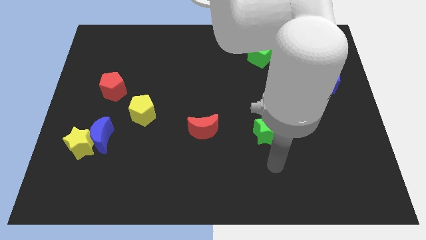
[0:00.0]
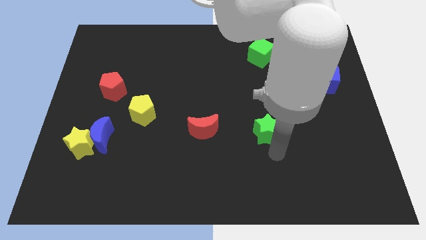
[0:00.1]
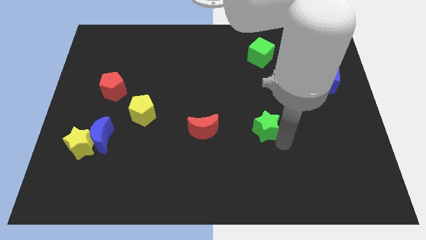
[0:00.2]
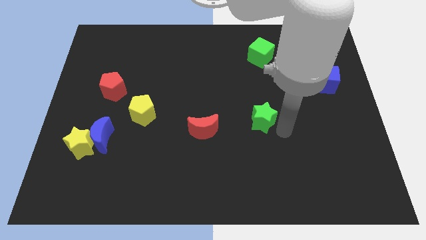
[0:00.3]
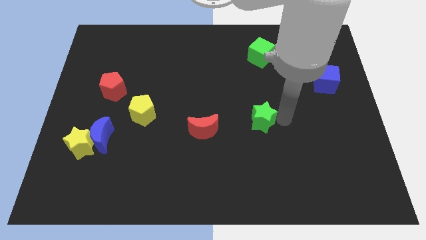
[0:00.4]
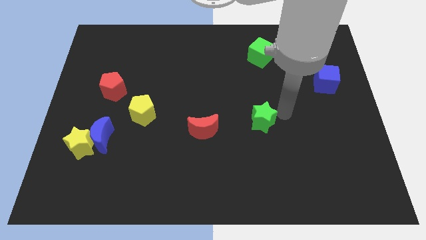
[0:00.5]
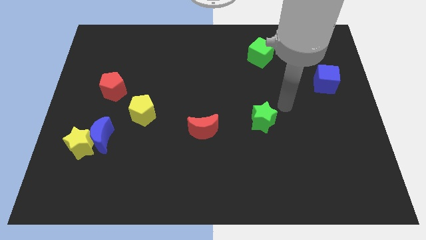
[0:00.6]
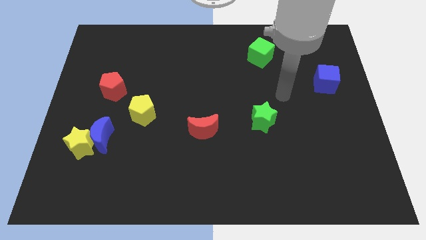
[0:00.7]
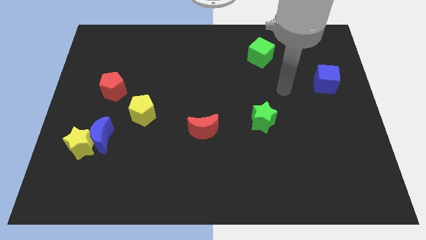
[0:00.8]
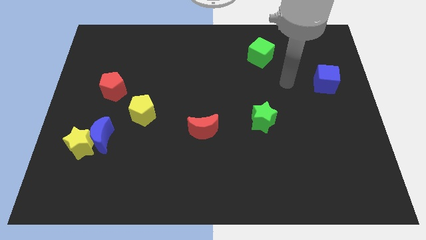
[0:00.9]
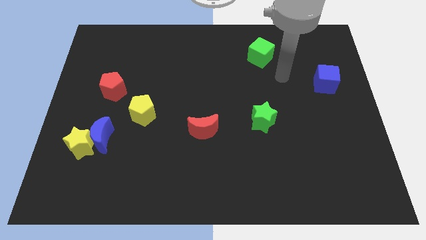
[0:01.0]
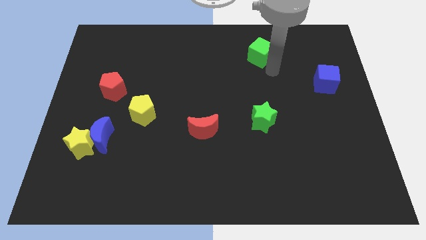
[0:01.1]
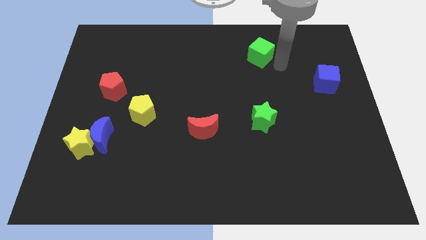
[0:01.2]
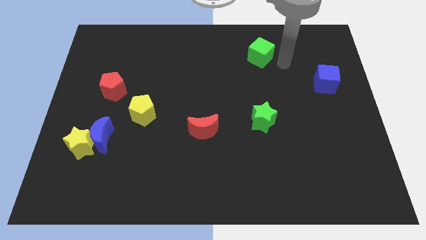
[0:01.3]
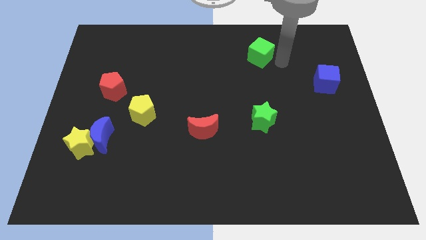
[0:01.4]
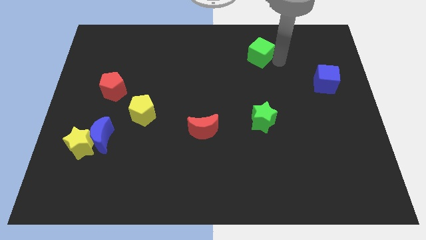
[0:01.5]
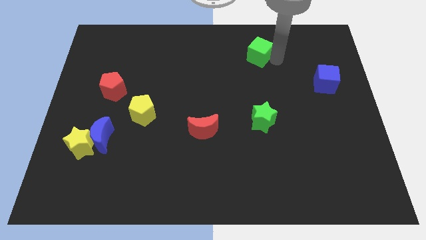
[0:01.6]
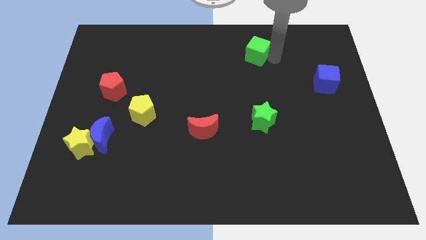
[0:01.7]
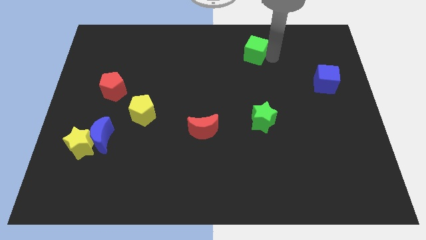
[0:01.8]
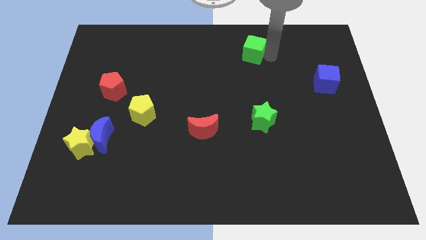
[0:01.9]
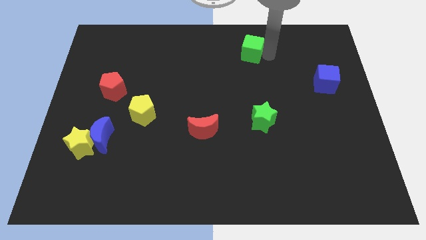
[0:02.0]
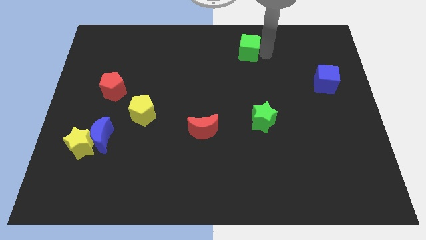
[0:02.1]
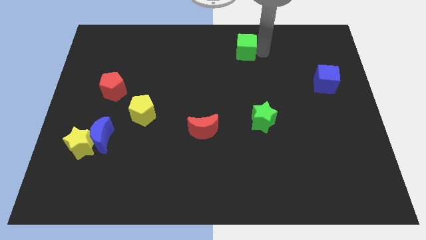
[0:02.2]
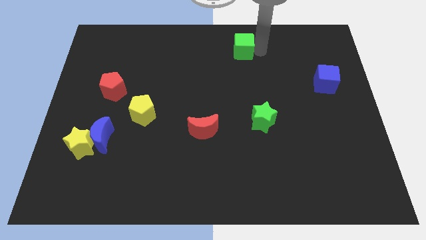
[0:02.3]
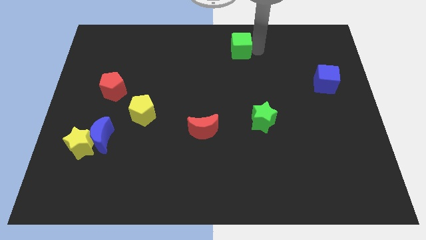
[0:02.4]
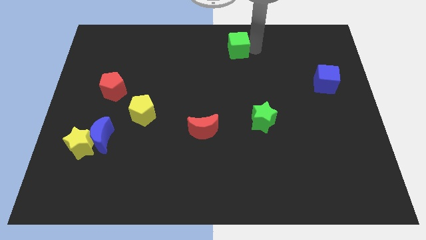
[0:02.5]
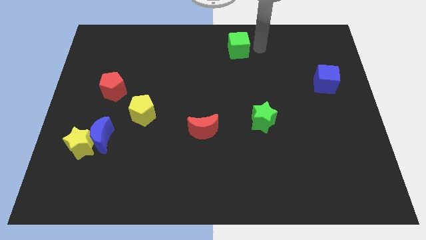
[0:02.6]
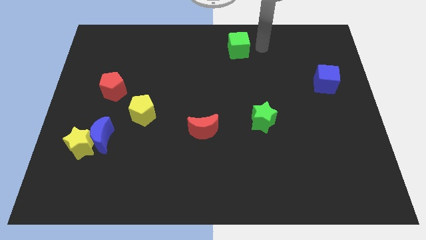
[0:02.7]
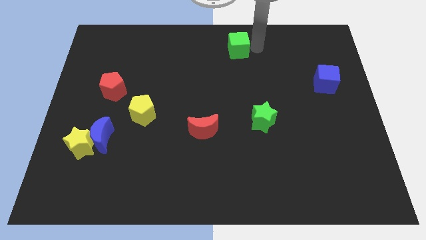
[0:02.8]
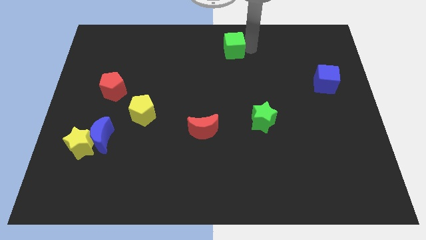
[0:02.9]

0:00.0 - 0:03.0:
push the green cube left a bit

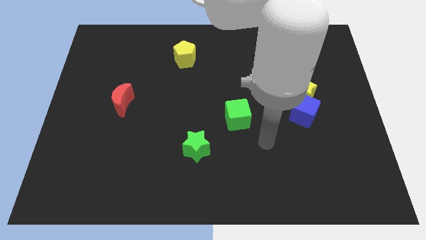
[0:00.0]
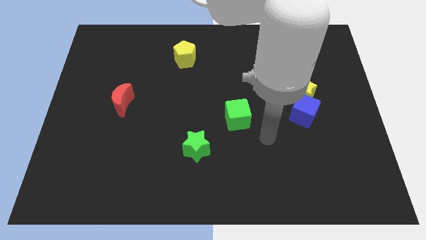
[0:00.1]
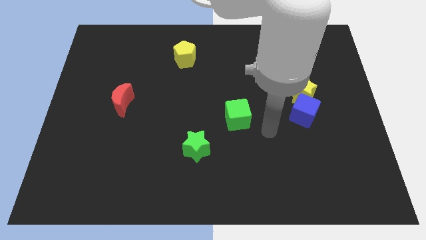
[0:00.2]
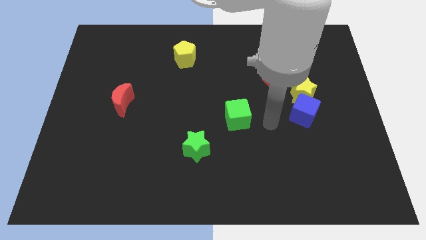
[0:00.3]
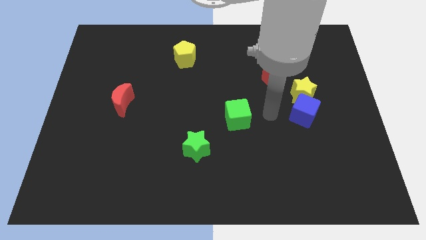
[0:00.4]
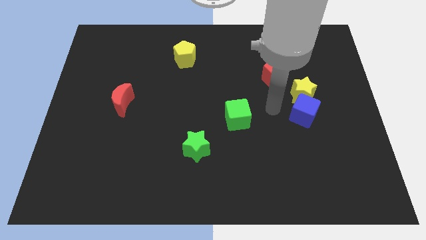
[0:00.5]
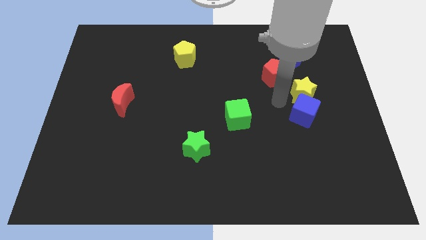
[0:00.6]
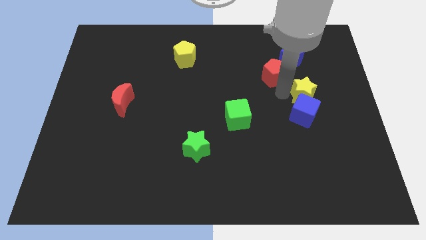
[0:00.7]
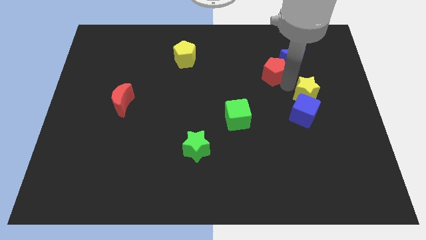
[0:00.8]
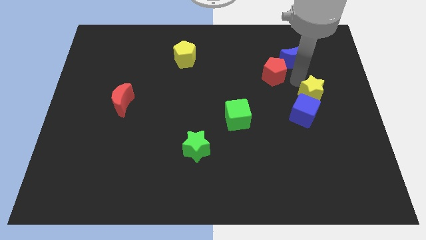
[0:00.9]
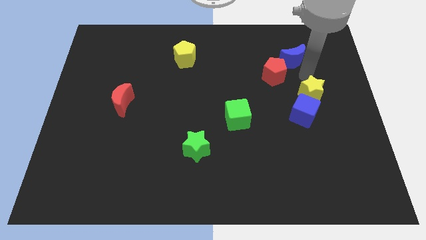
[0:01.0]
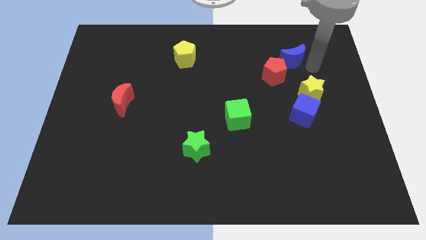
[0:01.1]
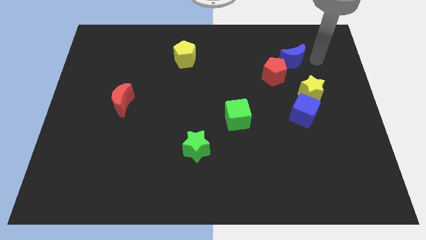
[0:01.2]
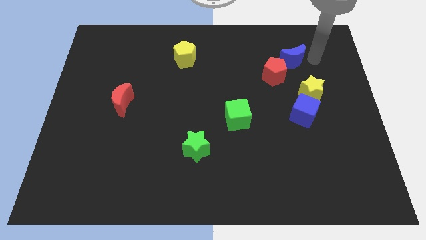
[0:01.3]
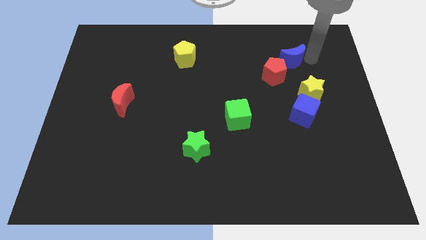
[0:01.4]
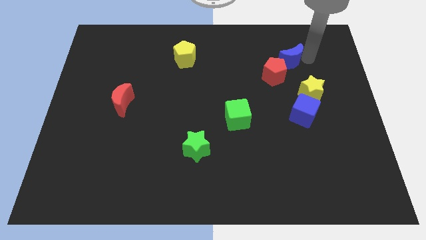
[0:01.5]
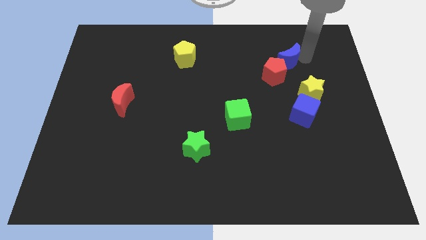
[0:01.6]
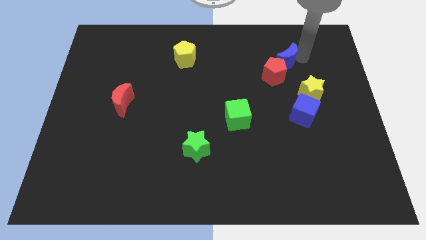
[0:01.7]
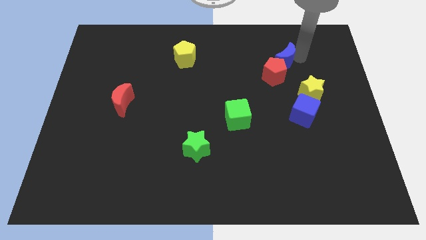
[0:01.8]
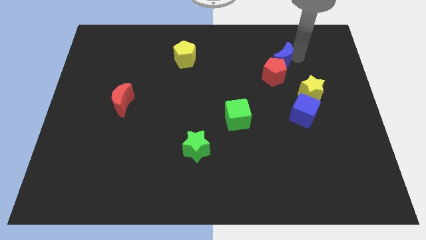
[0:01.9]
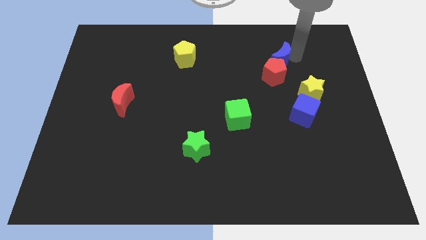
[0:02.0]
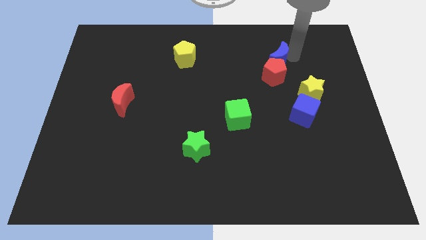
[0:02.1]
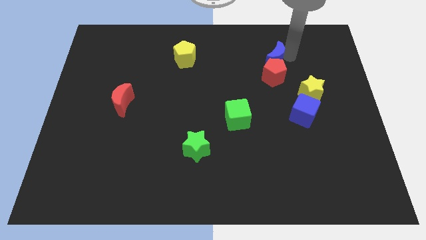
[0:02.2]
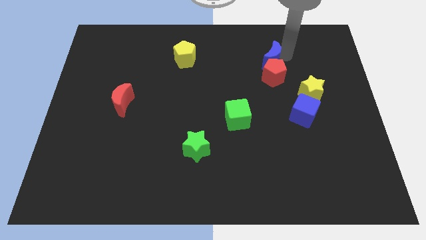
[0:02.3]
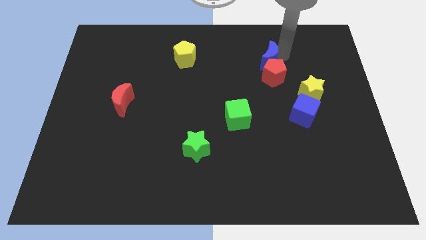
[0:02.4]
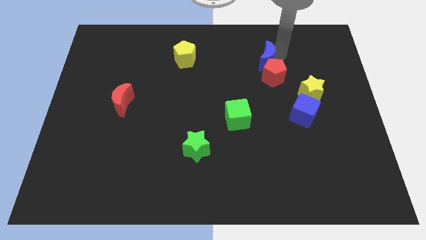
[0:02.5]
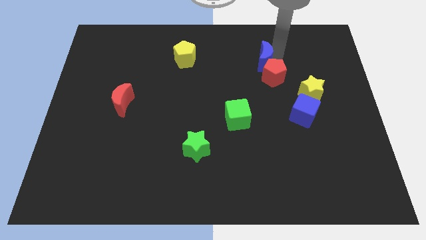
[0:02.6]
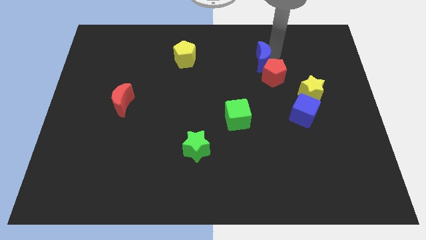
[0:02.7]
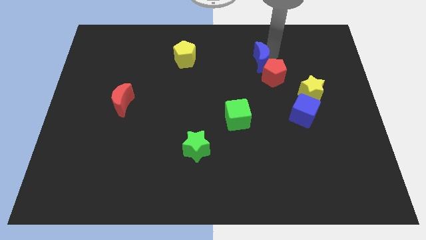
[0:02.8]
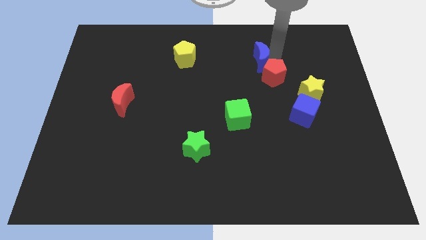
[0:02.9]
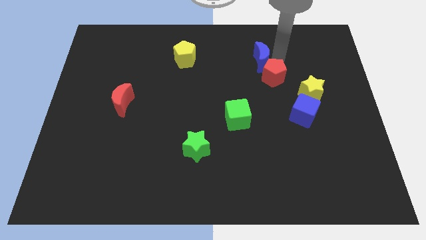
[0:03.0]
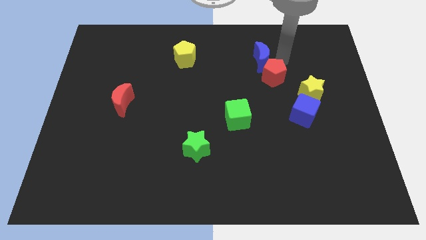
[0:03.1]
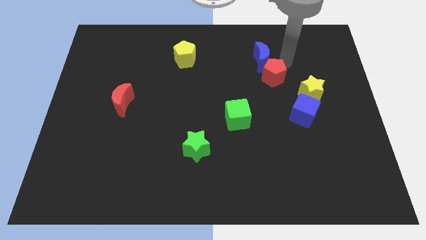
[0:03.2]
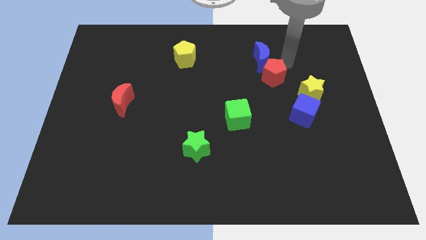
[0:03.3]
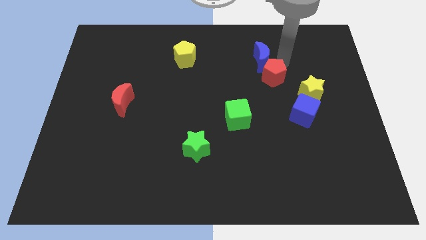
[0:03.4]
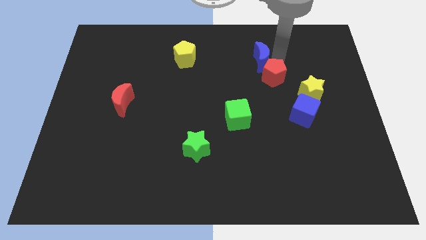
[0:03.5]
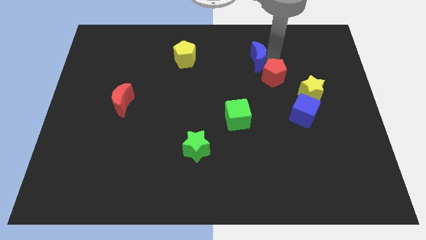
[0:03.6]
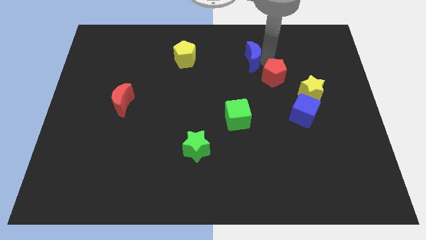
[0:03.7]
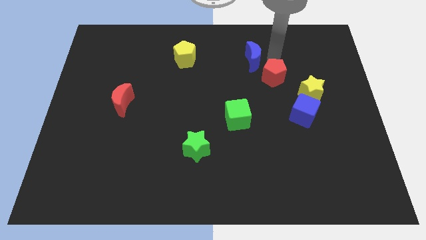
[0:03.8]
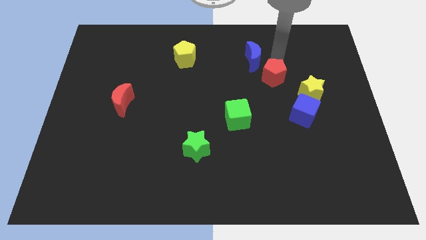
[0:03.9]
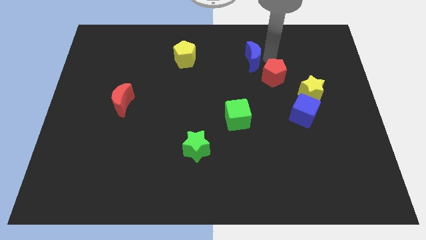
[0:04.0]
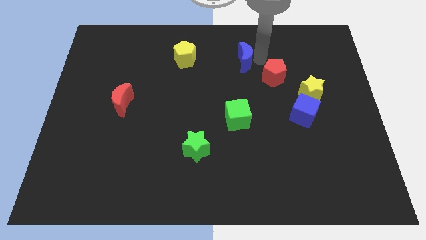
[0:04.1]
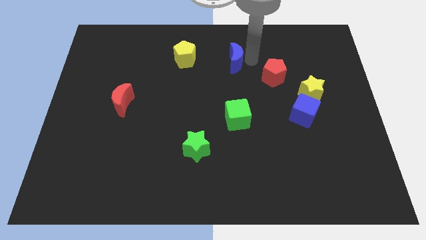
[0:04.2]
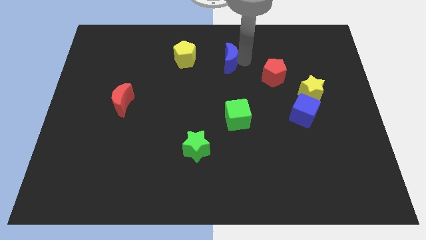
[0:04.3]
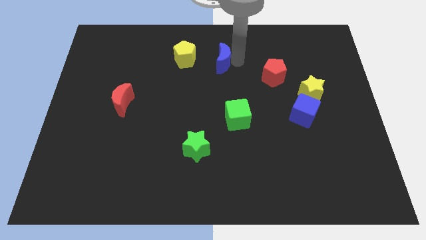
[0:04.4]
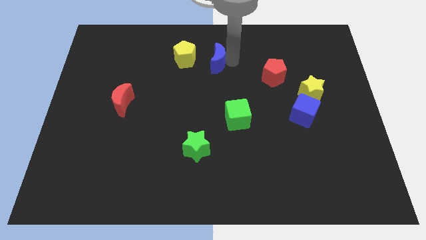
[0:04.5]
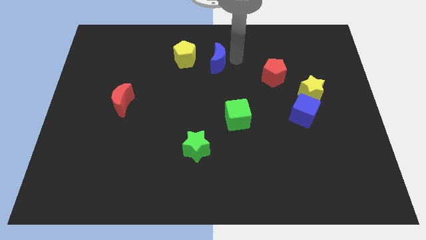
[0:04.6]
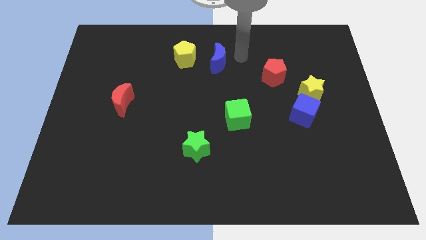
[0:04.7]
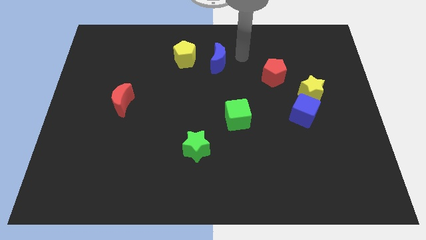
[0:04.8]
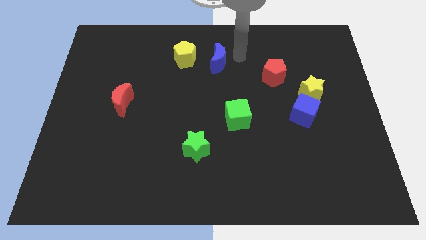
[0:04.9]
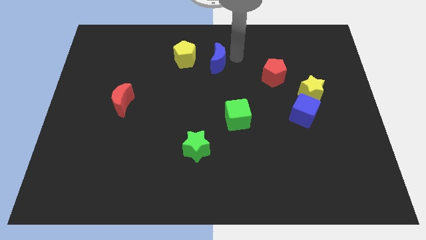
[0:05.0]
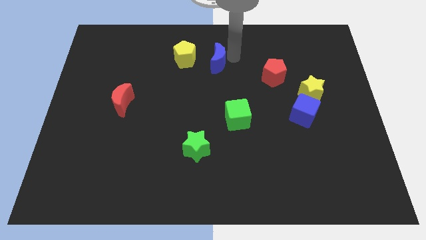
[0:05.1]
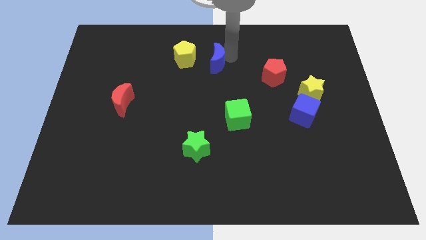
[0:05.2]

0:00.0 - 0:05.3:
slide the blue moon left
